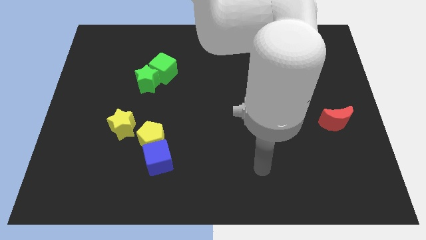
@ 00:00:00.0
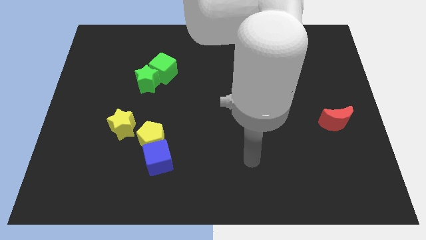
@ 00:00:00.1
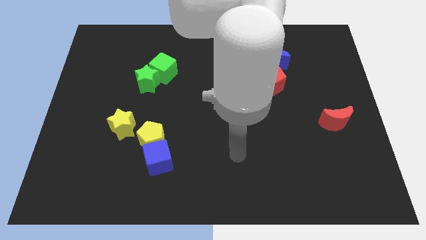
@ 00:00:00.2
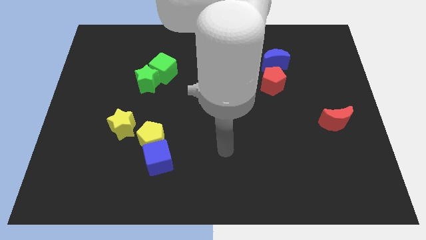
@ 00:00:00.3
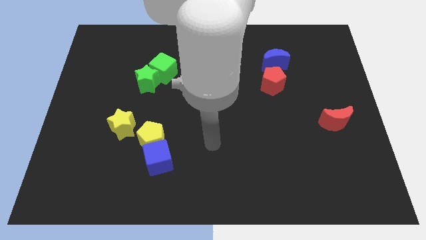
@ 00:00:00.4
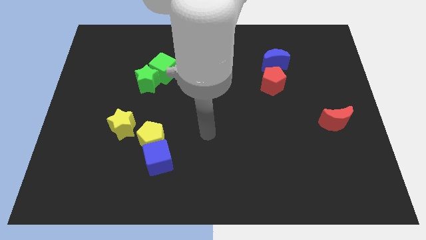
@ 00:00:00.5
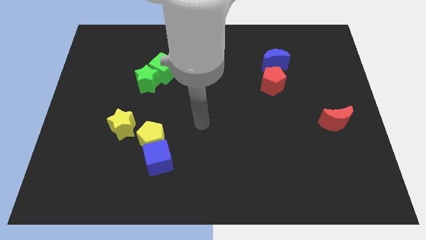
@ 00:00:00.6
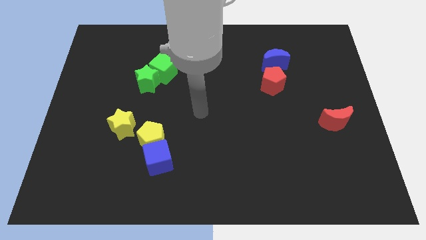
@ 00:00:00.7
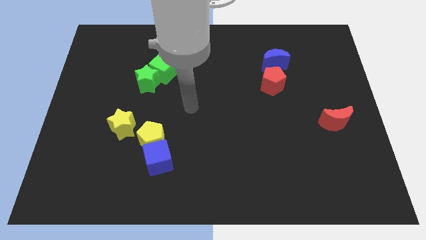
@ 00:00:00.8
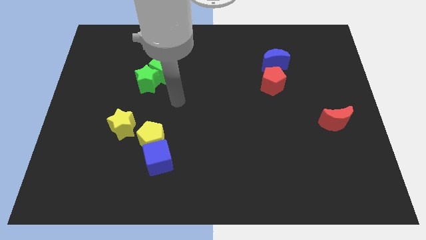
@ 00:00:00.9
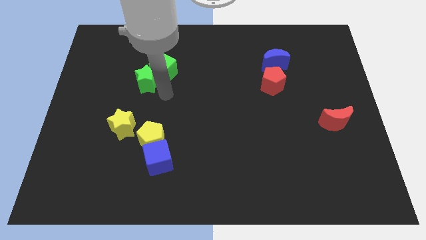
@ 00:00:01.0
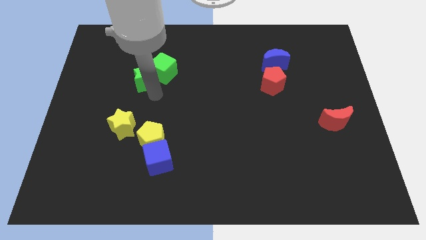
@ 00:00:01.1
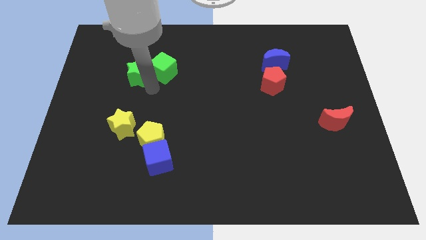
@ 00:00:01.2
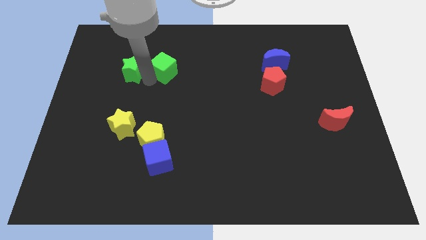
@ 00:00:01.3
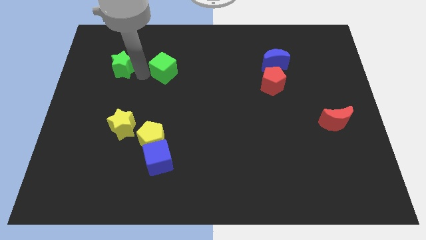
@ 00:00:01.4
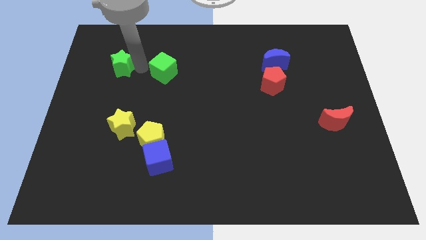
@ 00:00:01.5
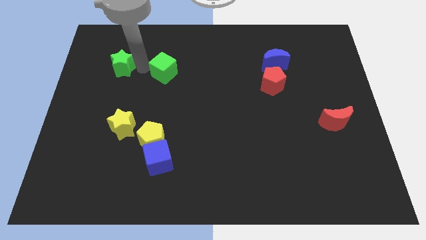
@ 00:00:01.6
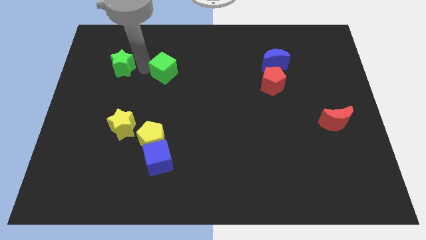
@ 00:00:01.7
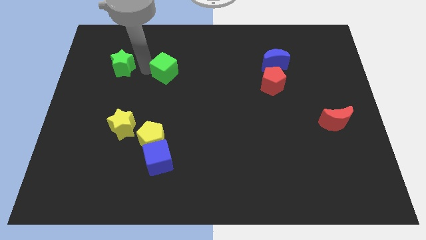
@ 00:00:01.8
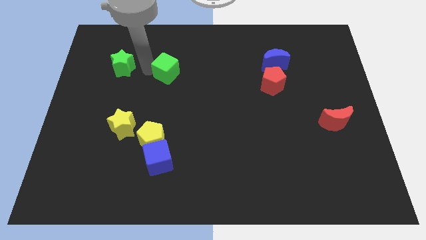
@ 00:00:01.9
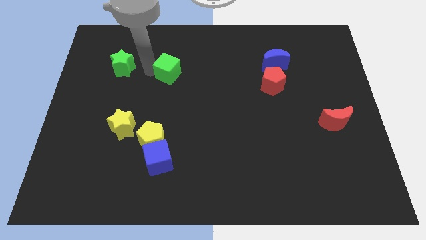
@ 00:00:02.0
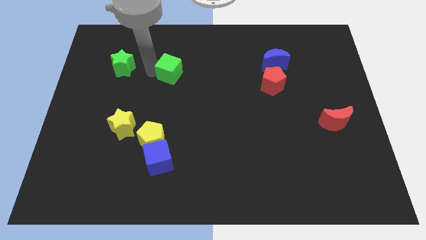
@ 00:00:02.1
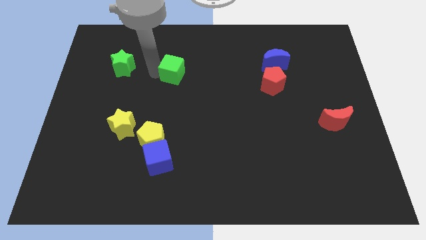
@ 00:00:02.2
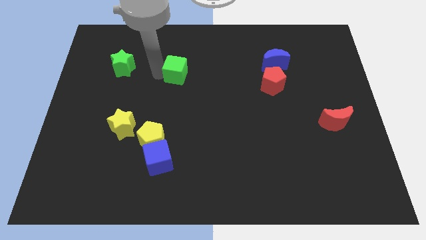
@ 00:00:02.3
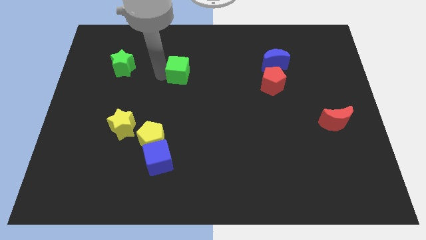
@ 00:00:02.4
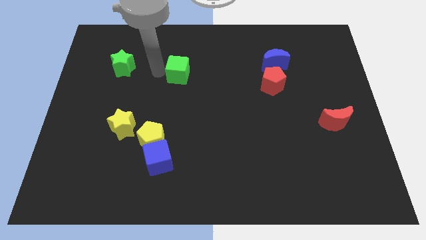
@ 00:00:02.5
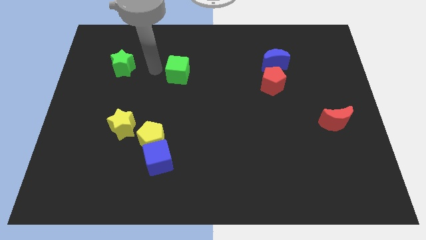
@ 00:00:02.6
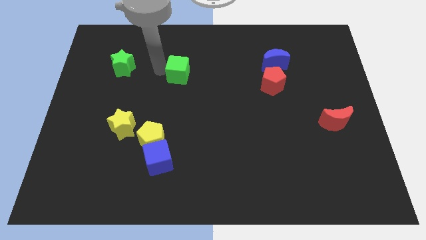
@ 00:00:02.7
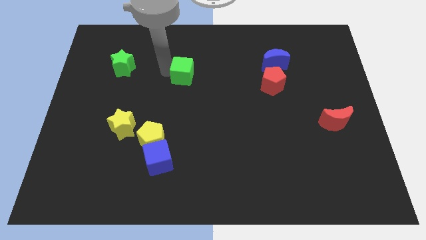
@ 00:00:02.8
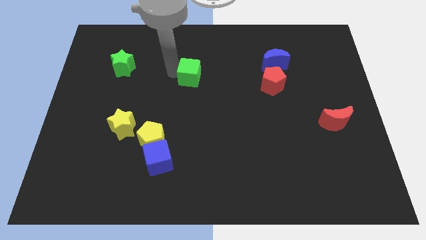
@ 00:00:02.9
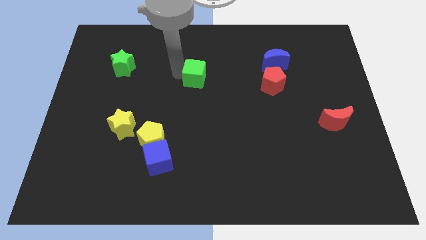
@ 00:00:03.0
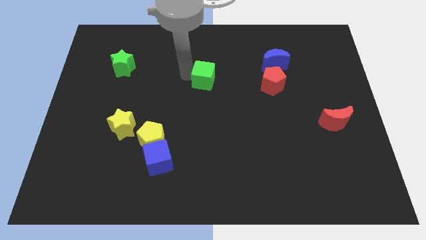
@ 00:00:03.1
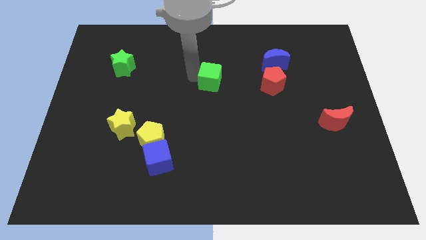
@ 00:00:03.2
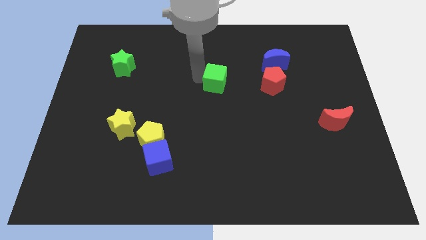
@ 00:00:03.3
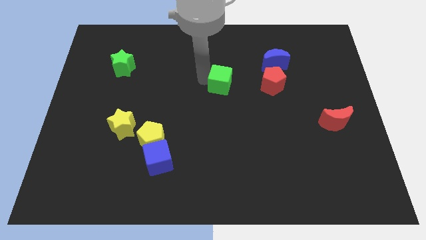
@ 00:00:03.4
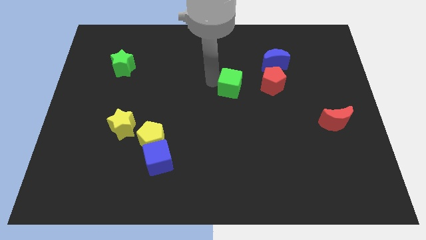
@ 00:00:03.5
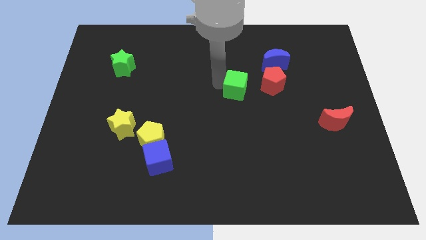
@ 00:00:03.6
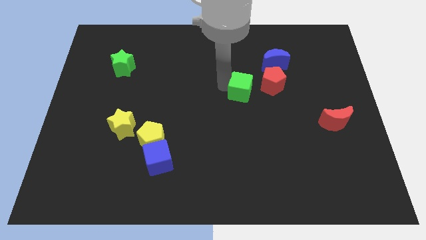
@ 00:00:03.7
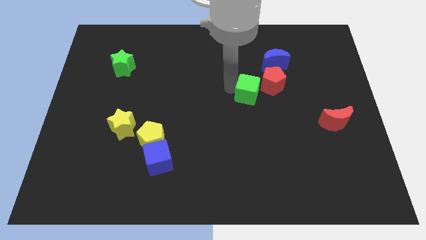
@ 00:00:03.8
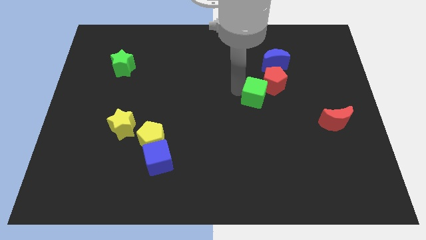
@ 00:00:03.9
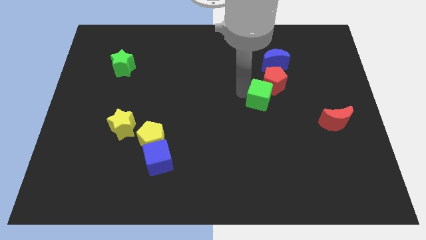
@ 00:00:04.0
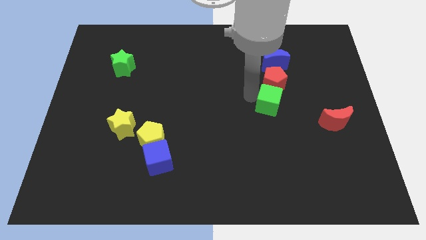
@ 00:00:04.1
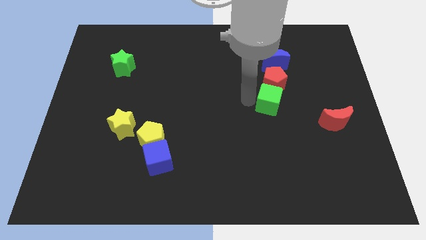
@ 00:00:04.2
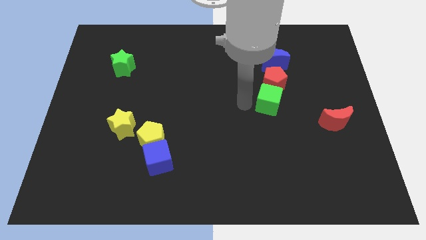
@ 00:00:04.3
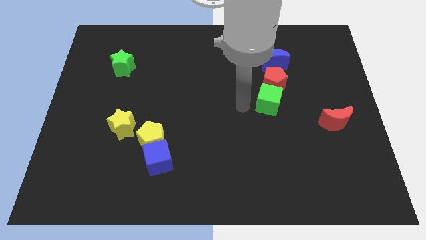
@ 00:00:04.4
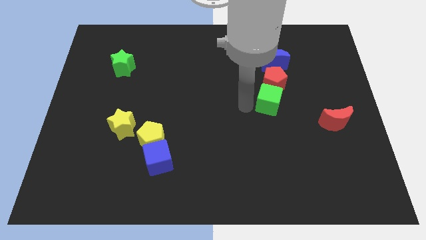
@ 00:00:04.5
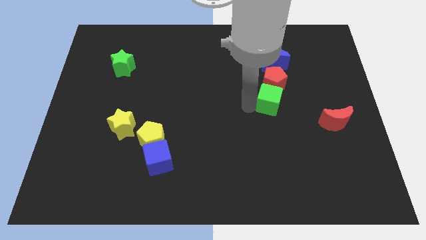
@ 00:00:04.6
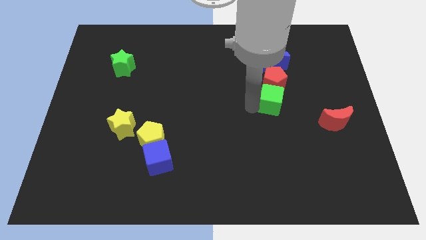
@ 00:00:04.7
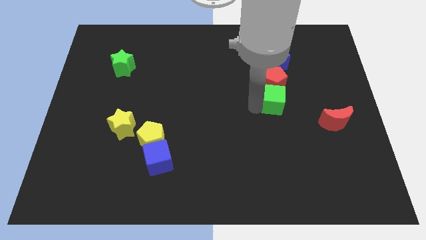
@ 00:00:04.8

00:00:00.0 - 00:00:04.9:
move the green cube to the bottom right of the red pentagon

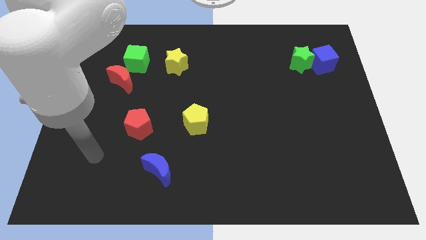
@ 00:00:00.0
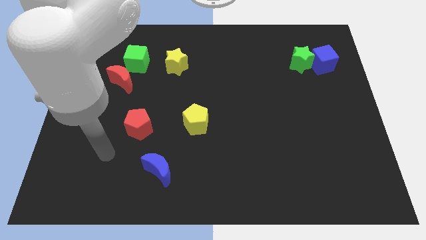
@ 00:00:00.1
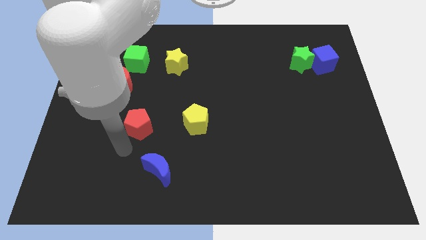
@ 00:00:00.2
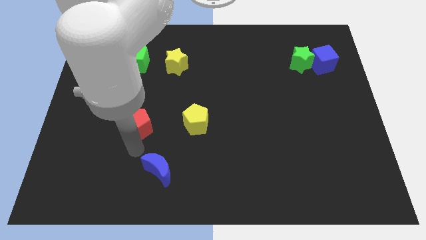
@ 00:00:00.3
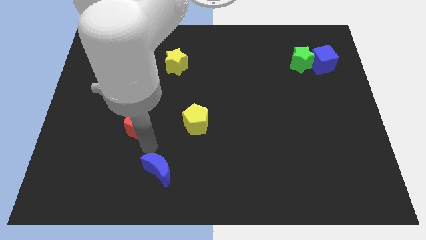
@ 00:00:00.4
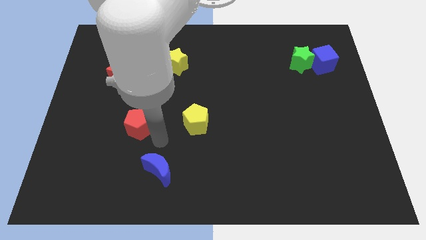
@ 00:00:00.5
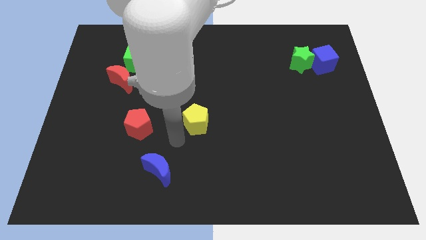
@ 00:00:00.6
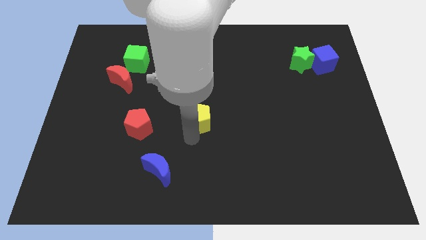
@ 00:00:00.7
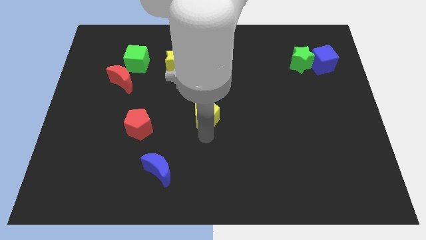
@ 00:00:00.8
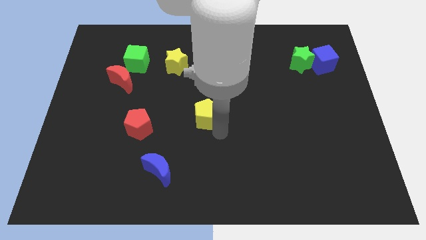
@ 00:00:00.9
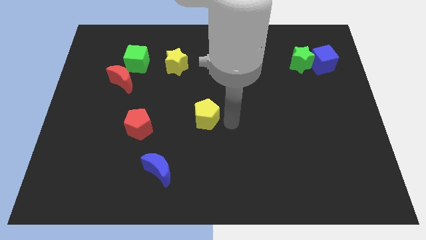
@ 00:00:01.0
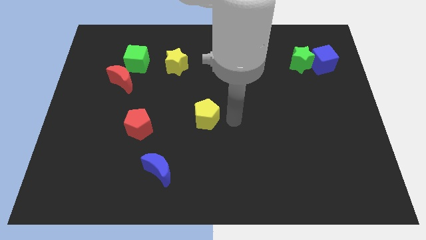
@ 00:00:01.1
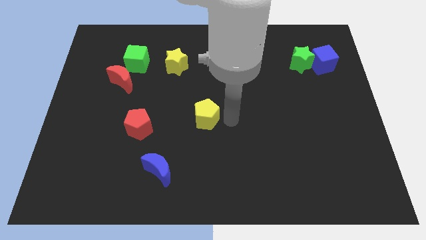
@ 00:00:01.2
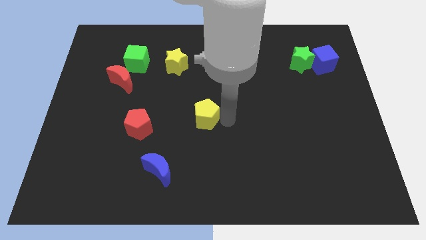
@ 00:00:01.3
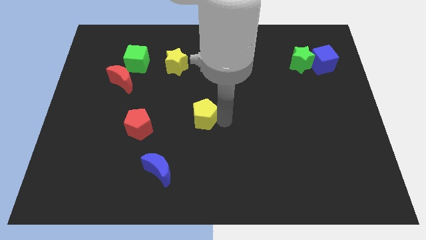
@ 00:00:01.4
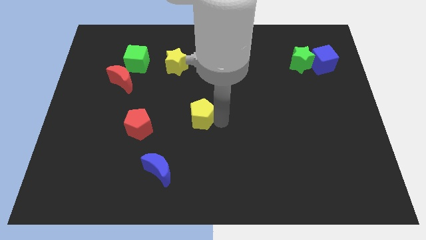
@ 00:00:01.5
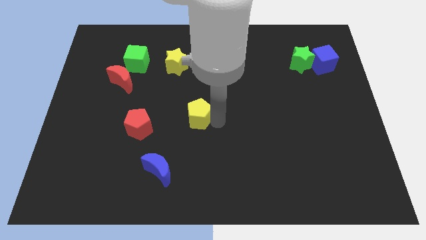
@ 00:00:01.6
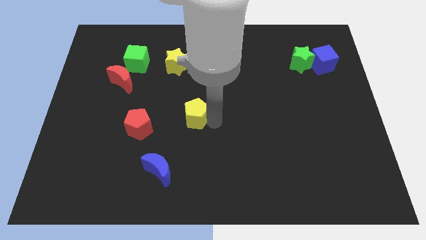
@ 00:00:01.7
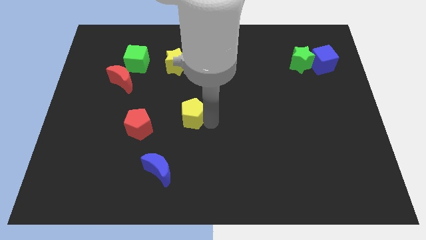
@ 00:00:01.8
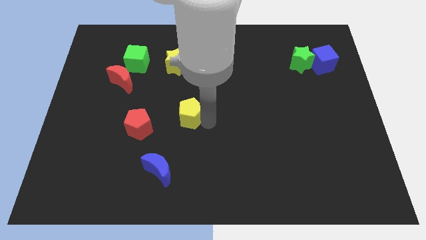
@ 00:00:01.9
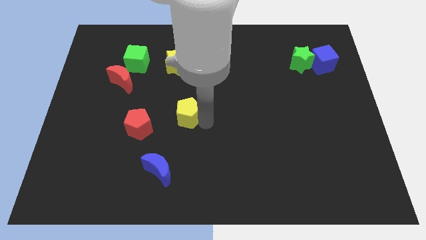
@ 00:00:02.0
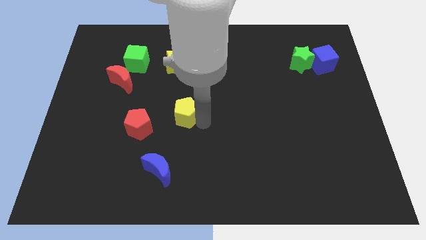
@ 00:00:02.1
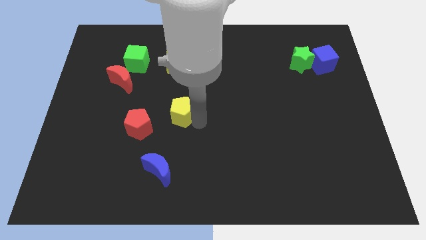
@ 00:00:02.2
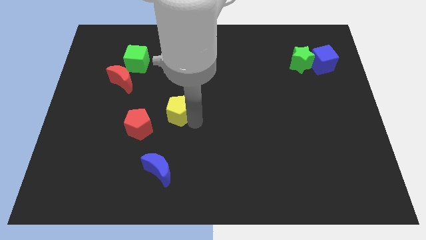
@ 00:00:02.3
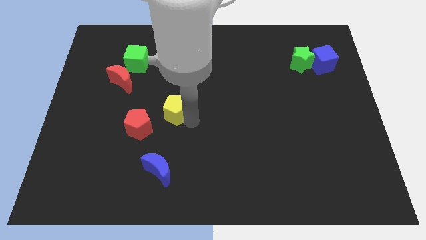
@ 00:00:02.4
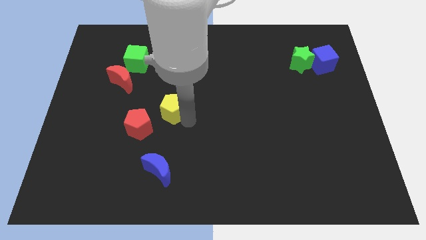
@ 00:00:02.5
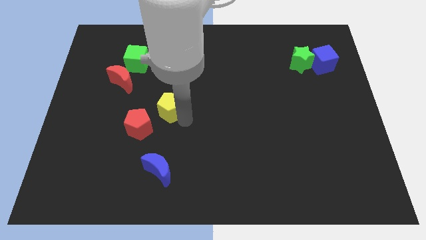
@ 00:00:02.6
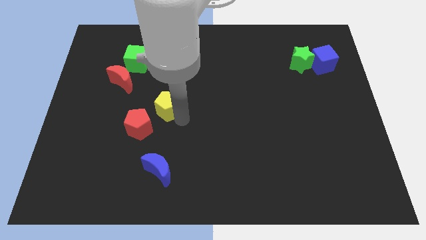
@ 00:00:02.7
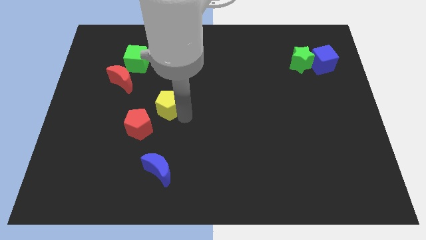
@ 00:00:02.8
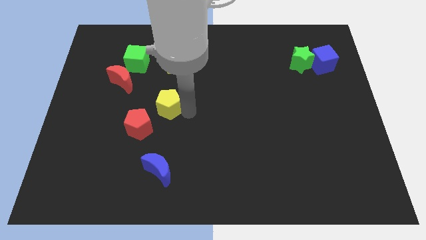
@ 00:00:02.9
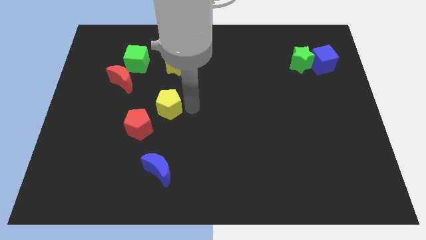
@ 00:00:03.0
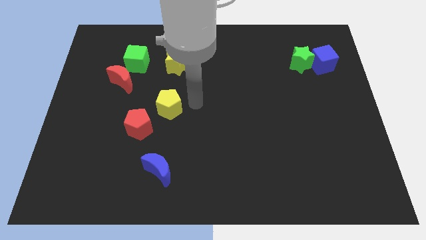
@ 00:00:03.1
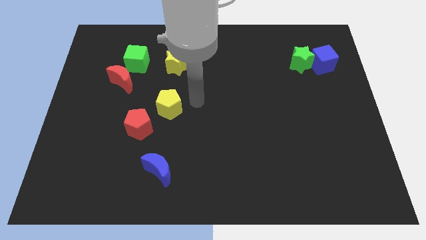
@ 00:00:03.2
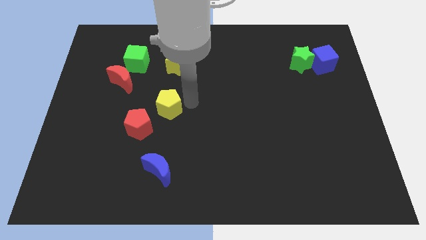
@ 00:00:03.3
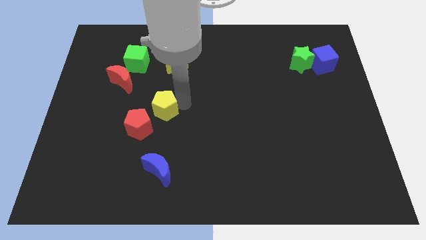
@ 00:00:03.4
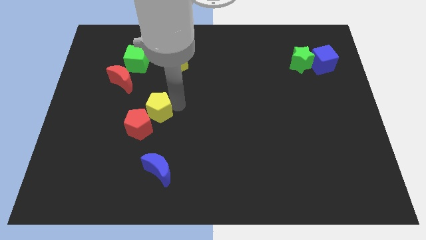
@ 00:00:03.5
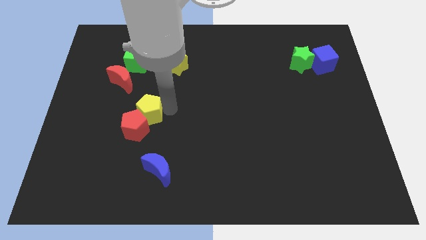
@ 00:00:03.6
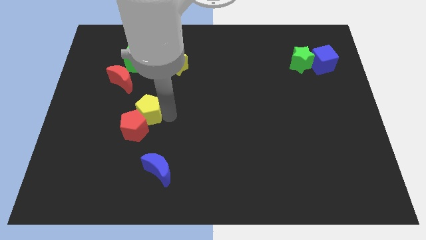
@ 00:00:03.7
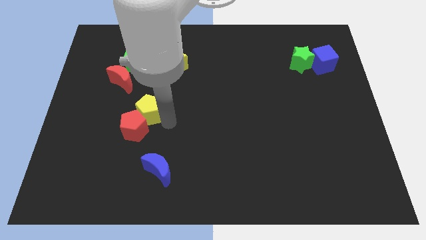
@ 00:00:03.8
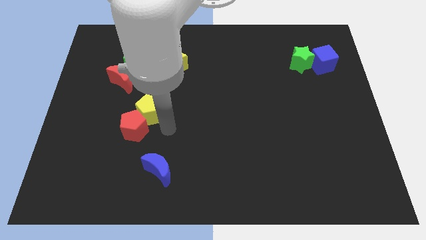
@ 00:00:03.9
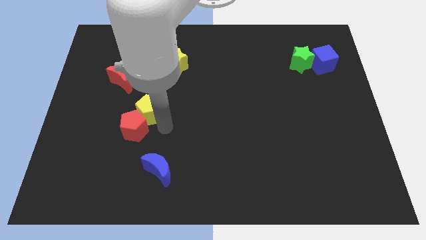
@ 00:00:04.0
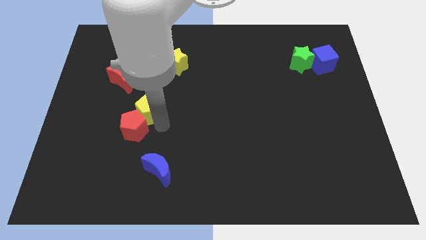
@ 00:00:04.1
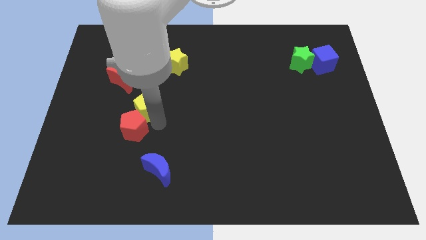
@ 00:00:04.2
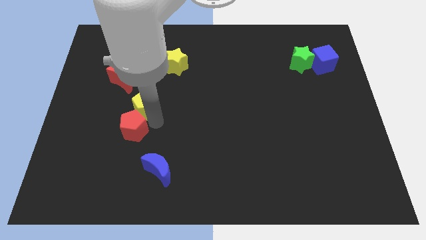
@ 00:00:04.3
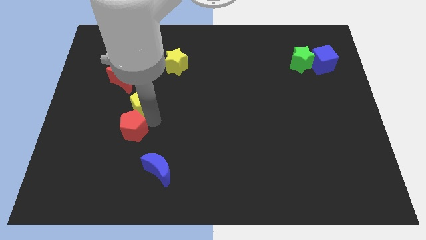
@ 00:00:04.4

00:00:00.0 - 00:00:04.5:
push the yellow pentagon below the green cube
